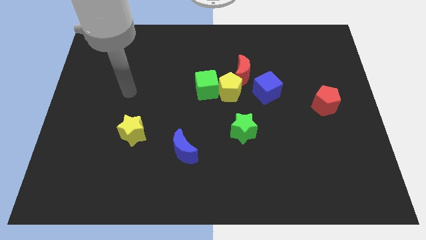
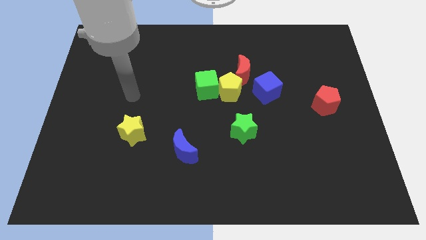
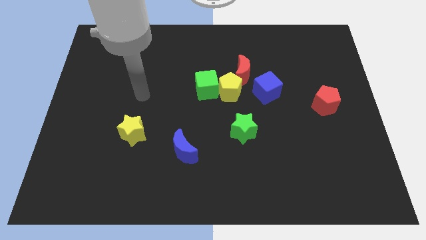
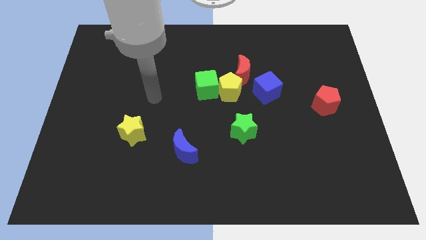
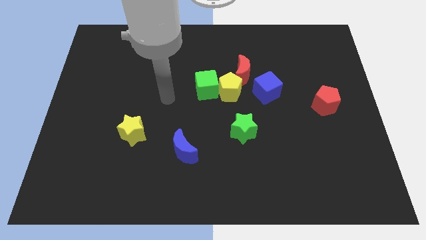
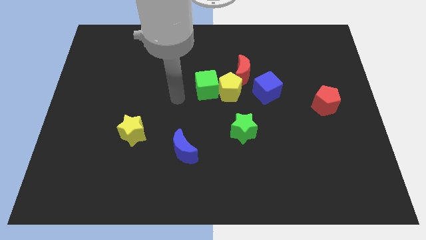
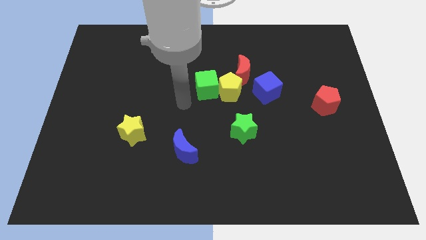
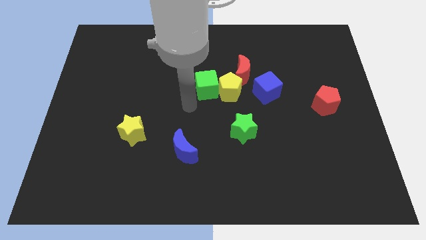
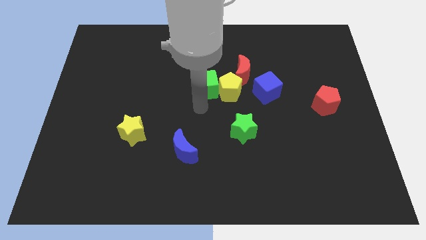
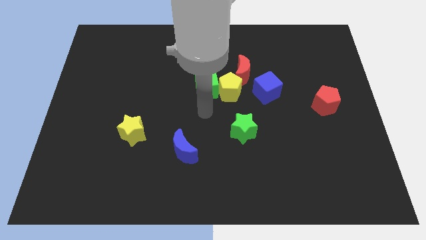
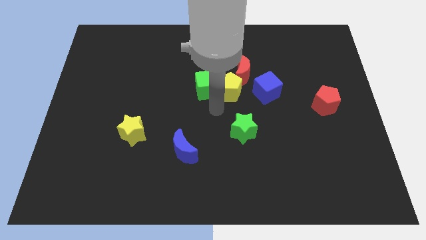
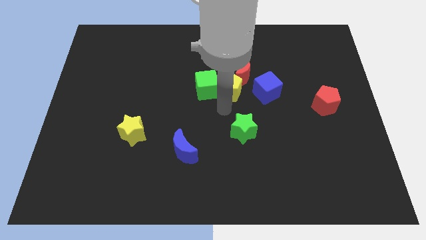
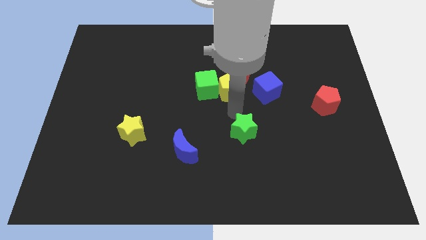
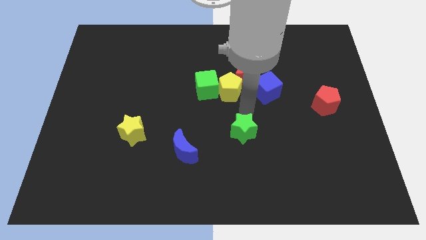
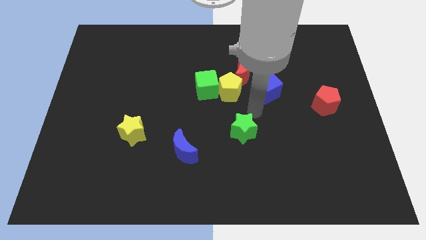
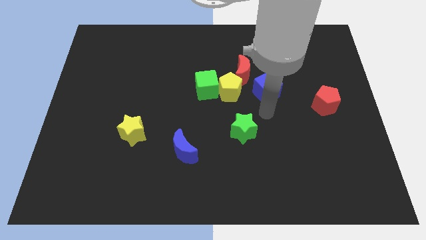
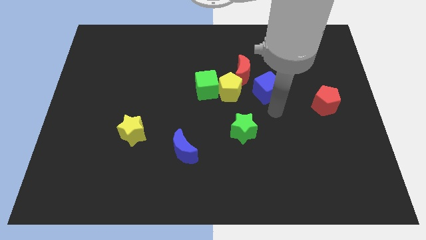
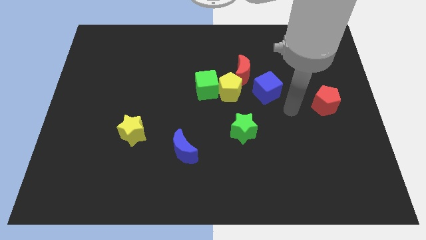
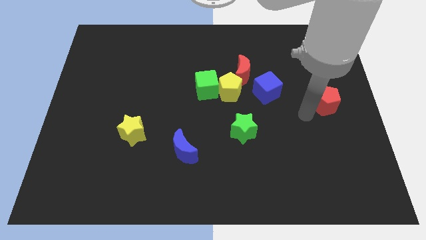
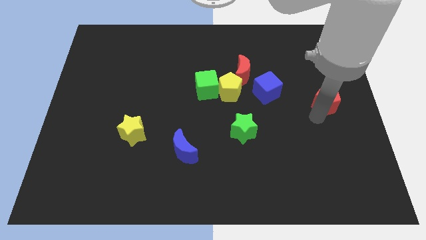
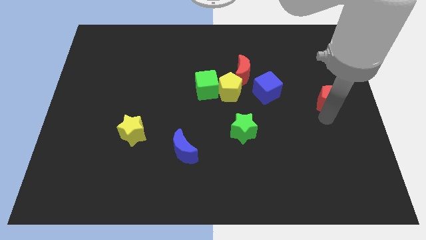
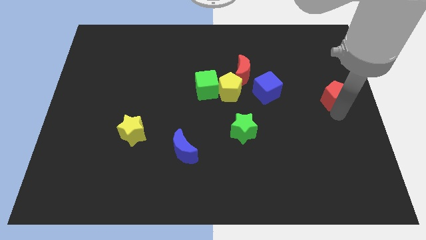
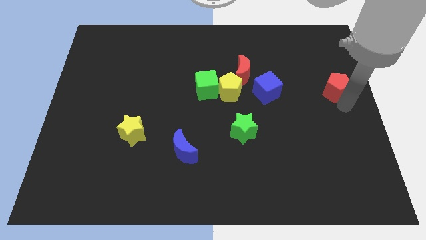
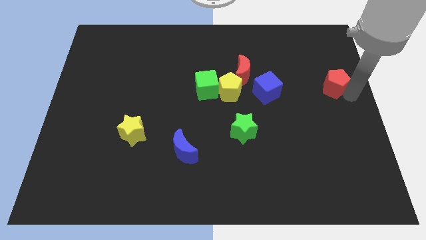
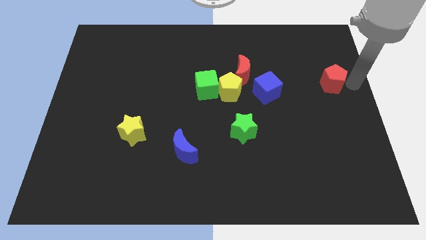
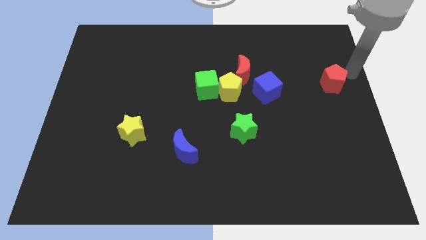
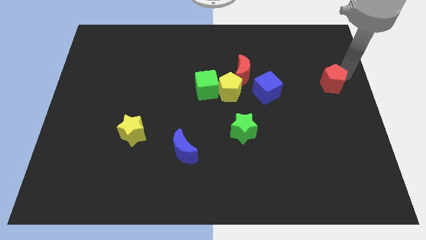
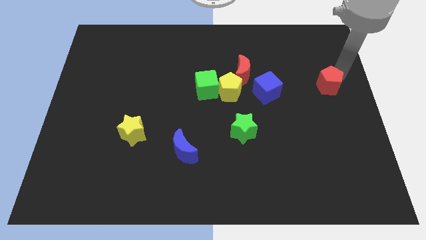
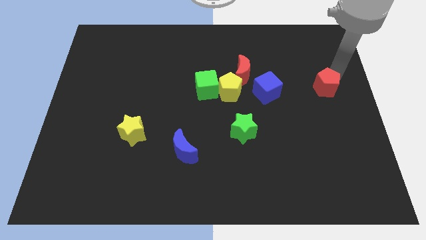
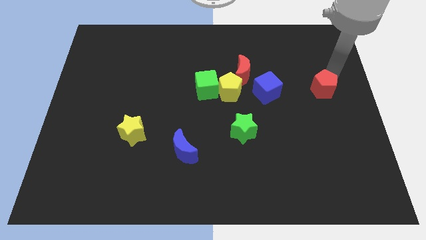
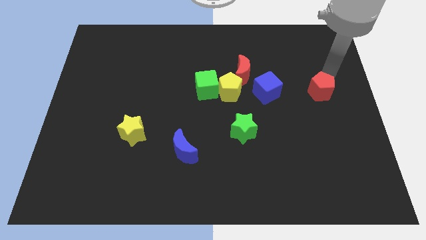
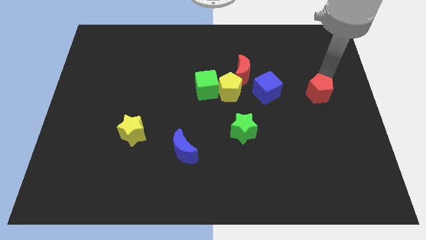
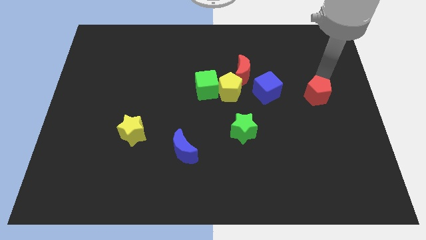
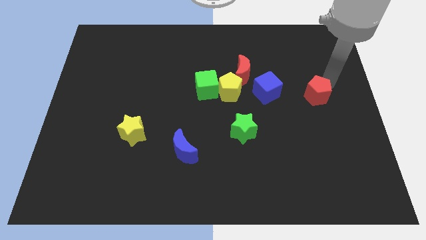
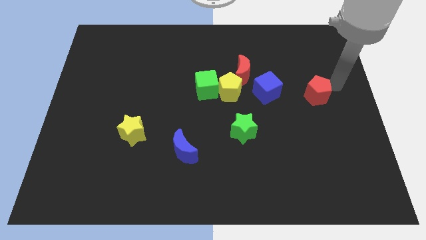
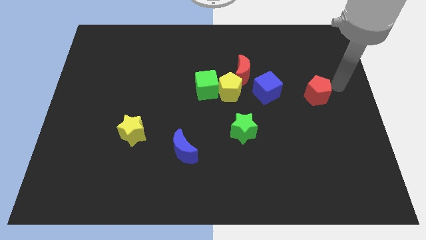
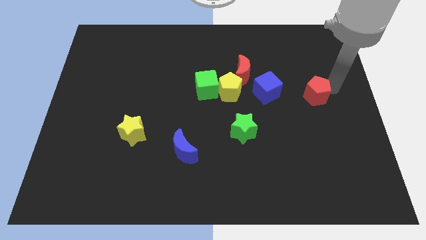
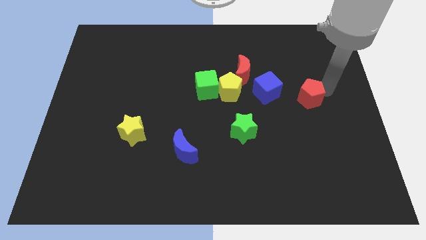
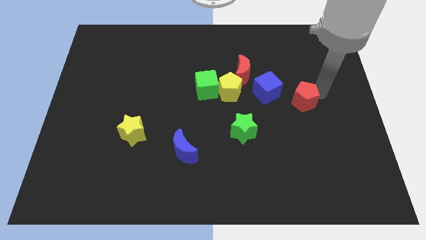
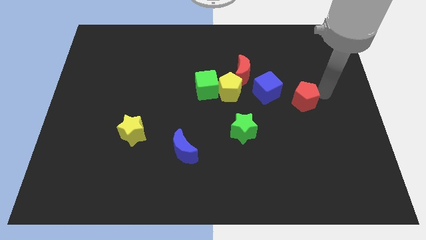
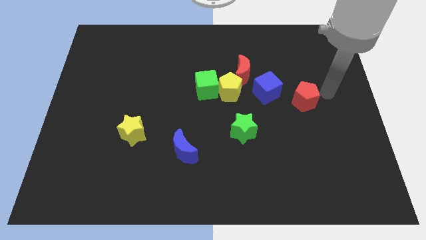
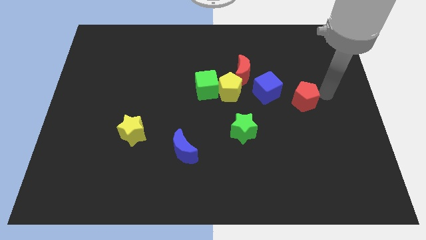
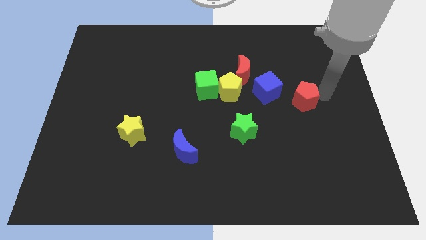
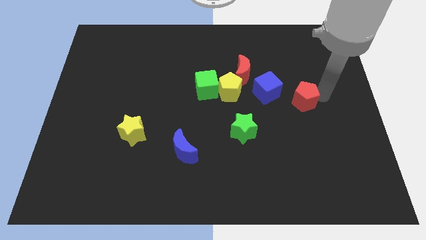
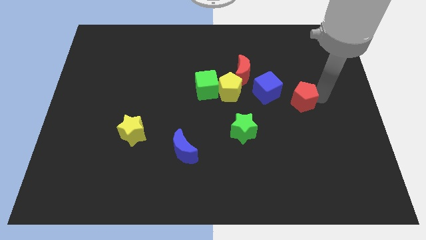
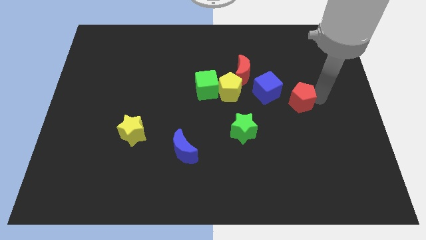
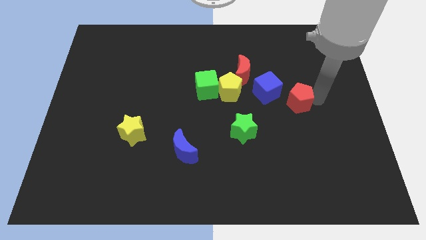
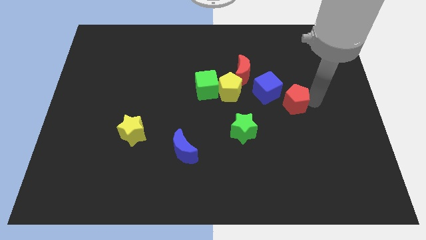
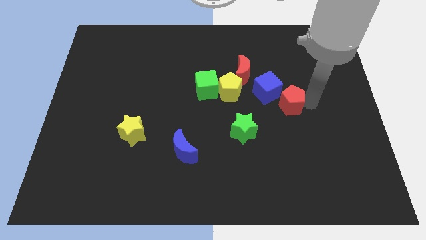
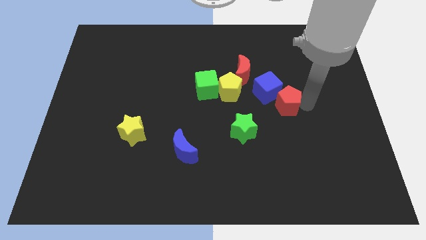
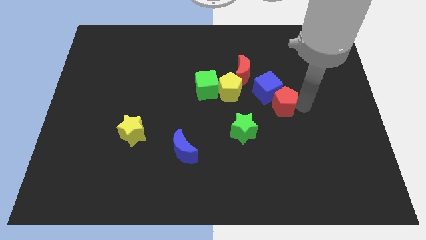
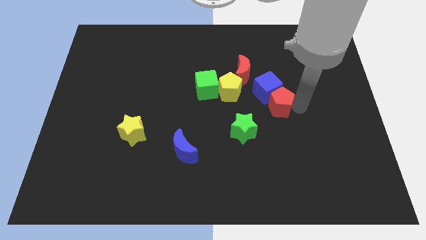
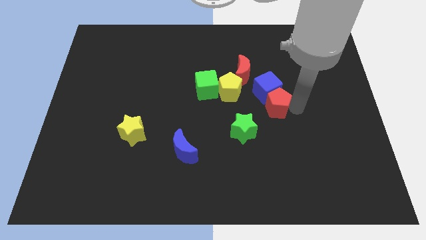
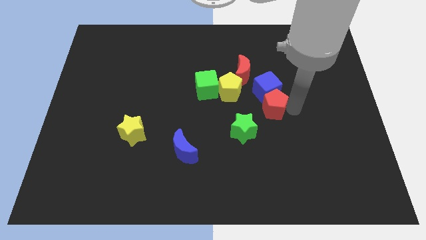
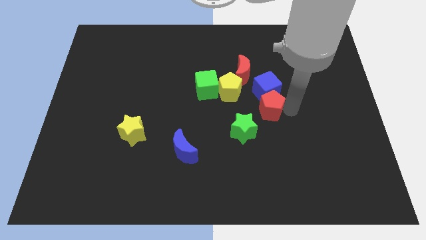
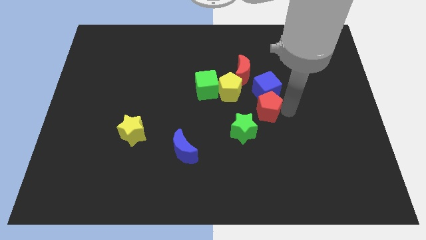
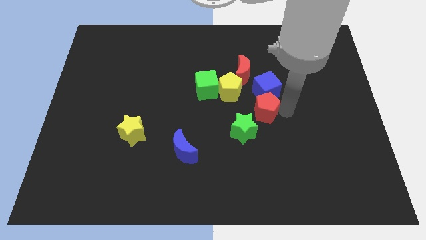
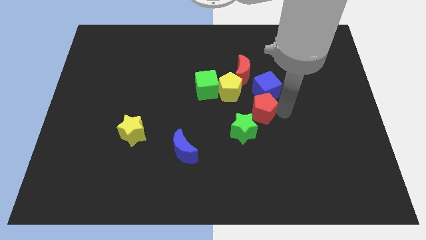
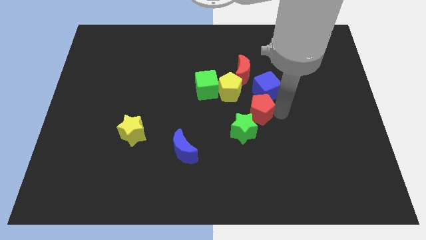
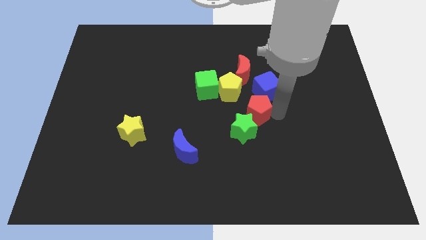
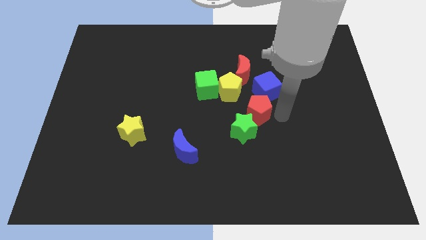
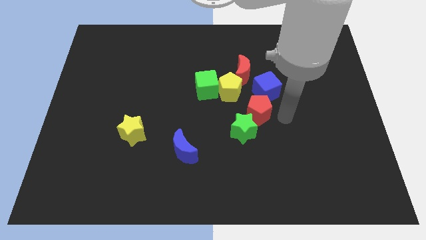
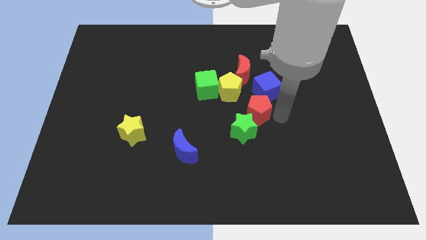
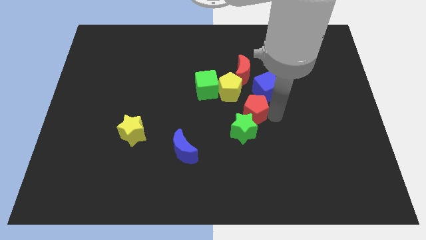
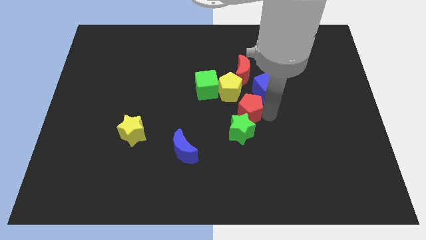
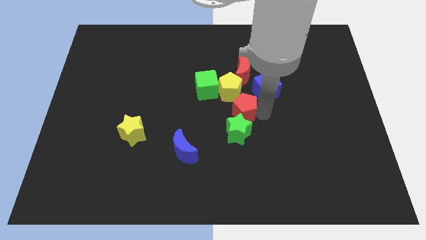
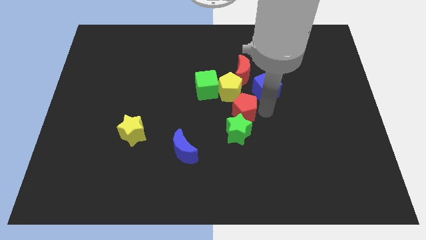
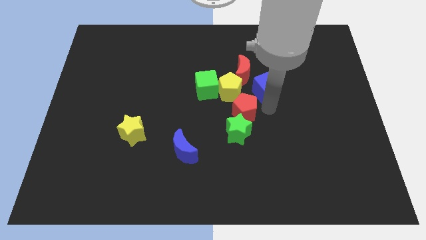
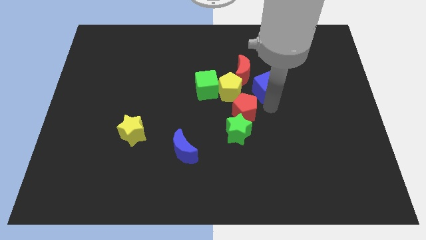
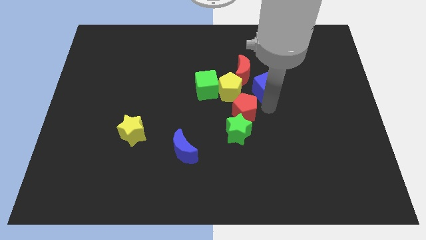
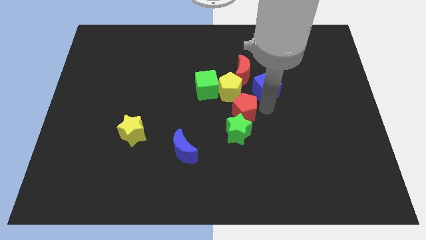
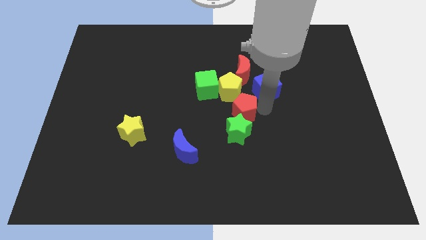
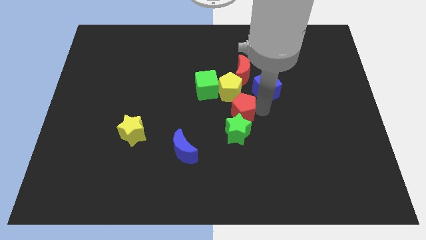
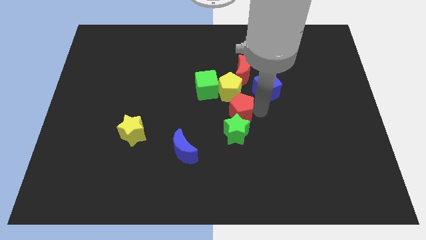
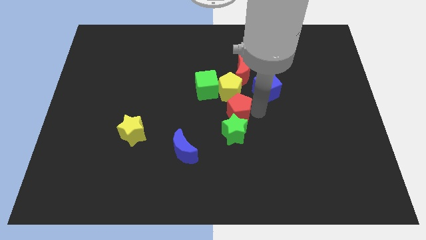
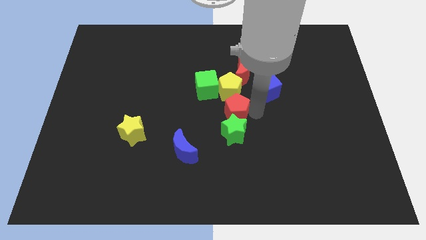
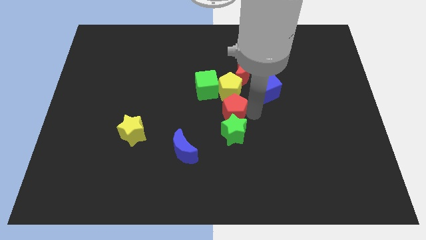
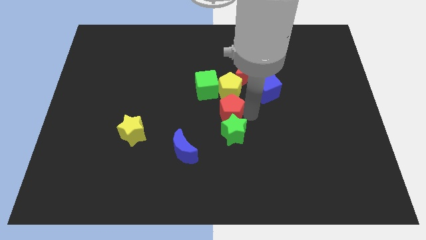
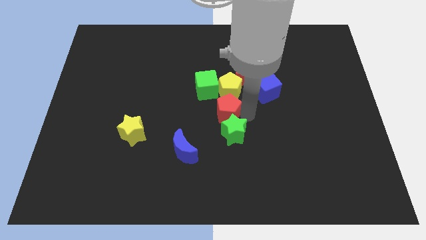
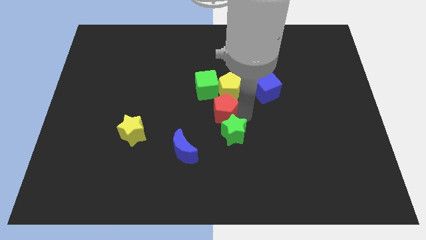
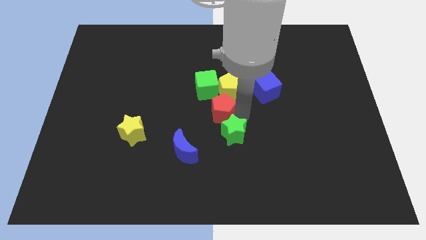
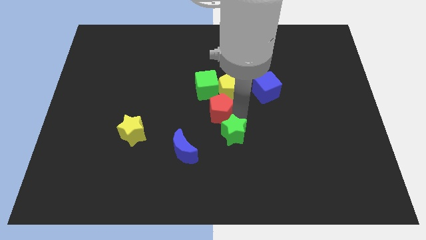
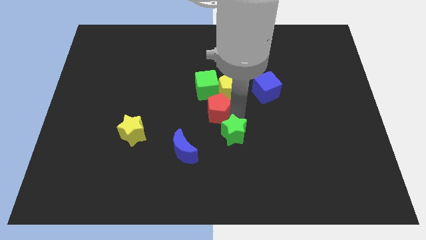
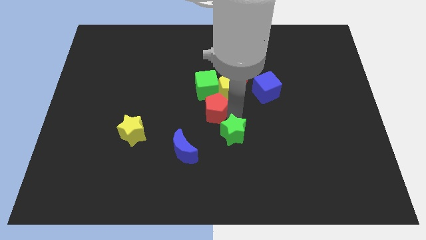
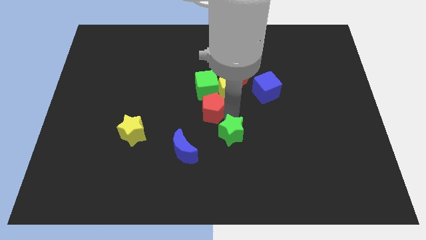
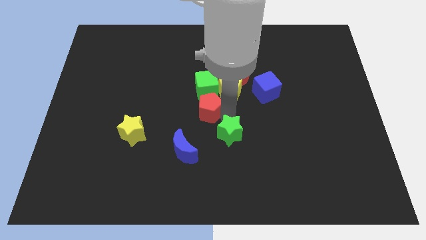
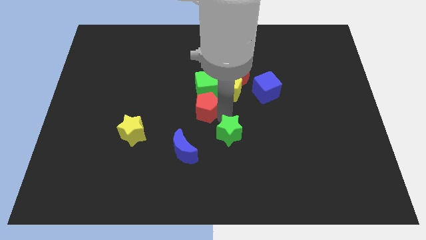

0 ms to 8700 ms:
slide the red pentagon to the bottom left of the green cube
